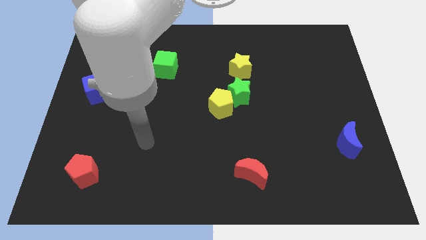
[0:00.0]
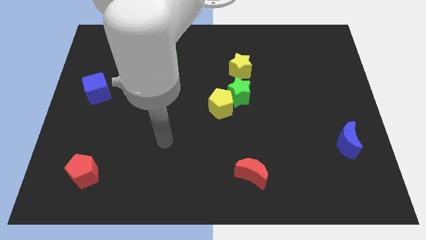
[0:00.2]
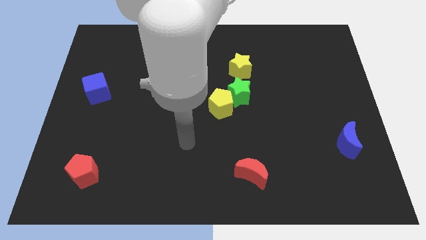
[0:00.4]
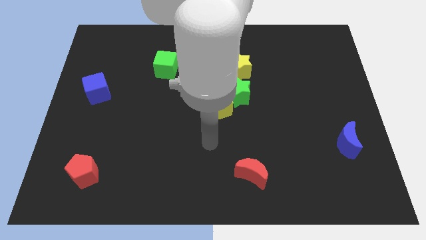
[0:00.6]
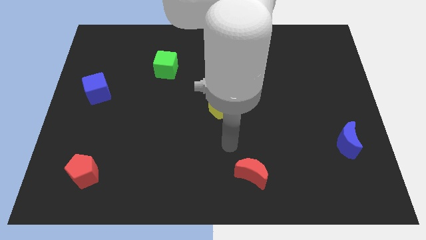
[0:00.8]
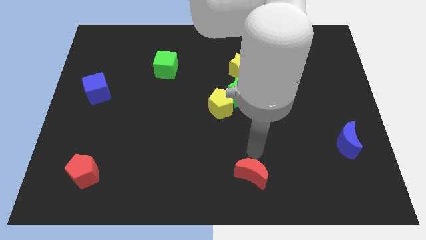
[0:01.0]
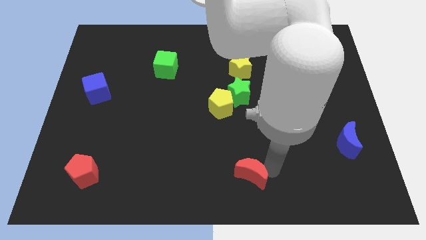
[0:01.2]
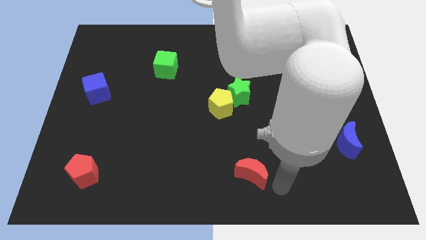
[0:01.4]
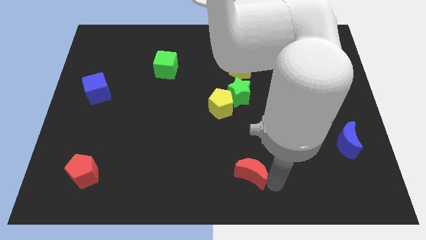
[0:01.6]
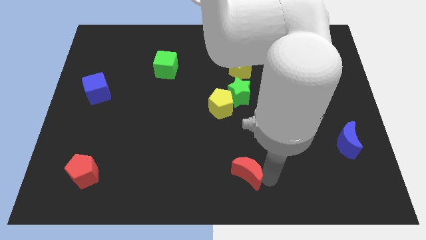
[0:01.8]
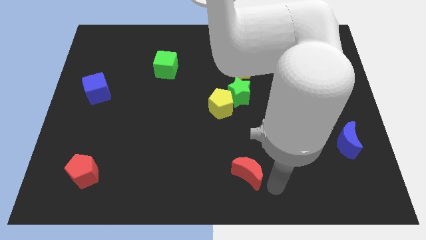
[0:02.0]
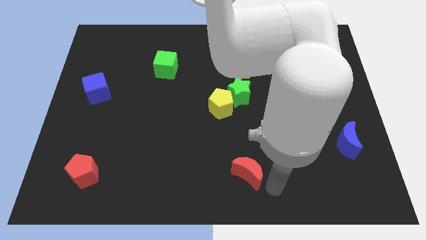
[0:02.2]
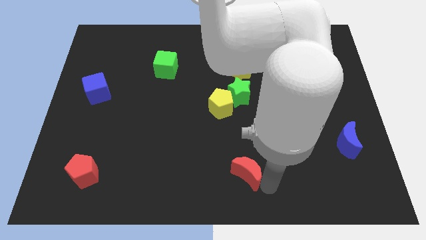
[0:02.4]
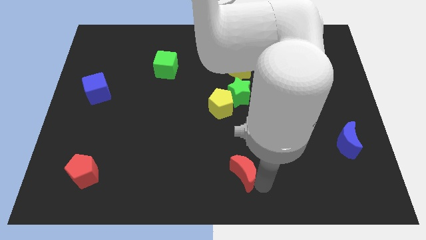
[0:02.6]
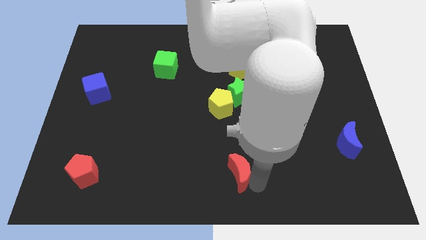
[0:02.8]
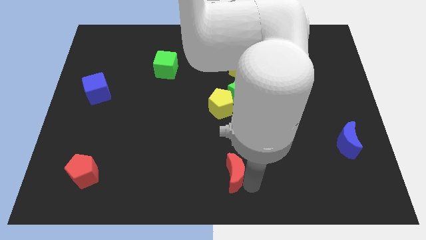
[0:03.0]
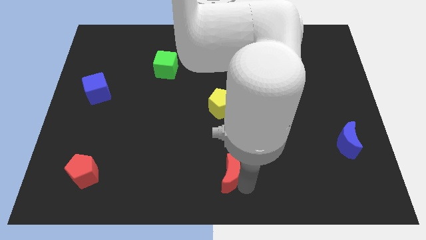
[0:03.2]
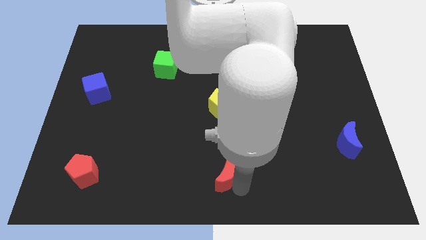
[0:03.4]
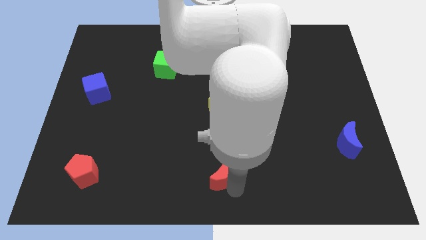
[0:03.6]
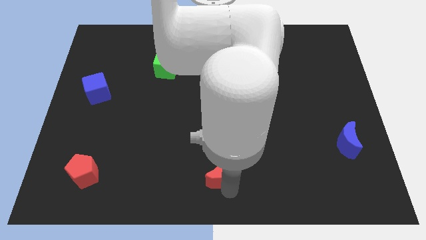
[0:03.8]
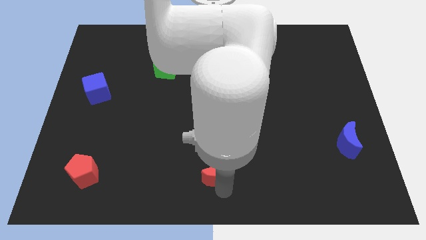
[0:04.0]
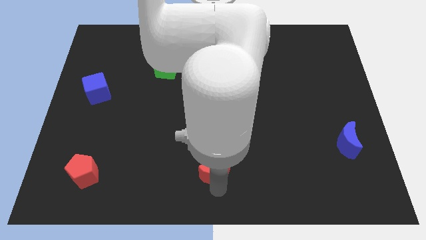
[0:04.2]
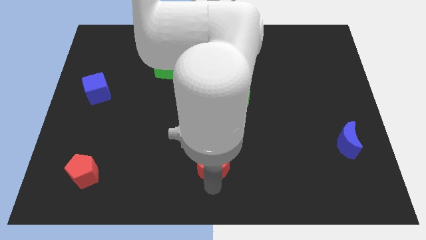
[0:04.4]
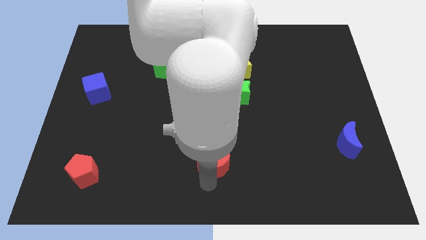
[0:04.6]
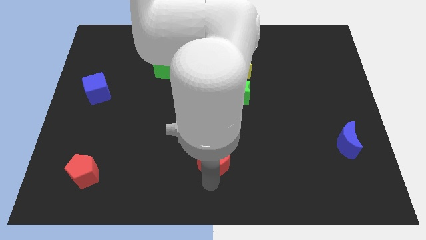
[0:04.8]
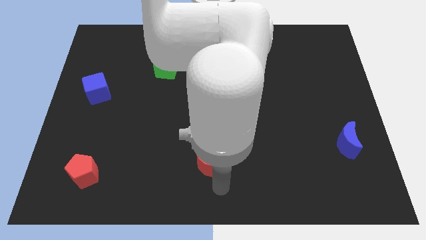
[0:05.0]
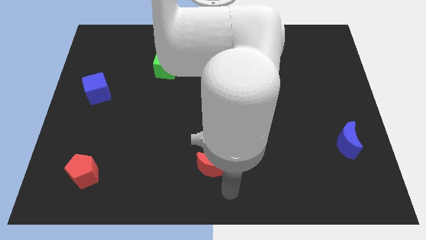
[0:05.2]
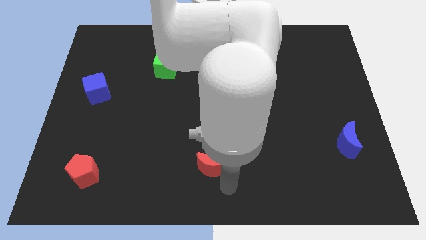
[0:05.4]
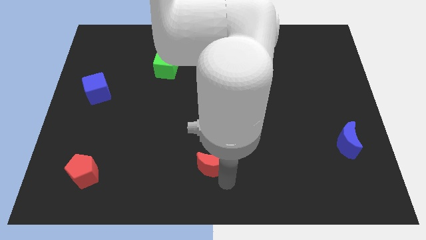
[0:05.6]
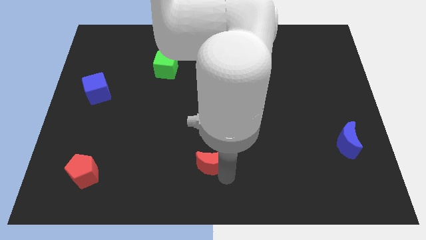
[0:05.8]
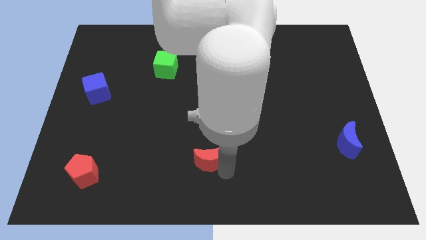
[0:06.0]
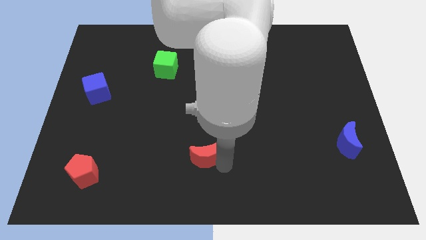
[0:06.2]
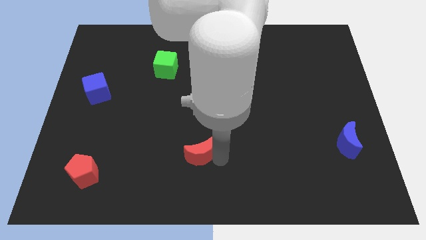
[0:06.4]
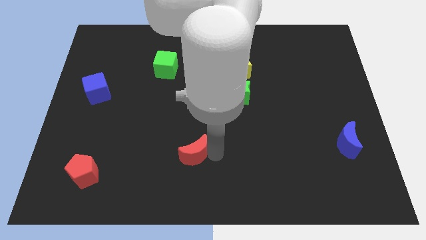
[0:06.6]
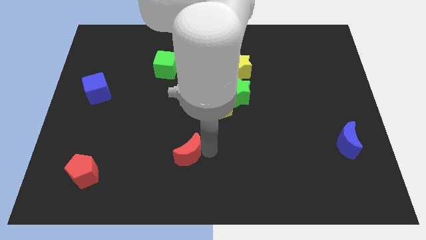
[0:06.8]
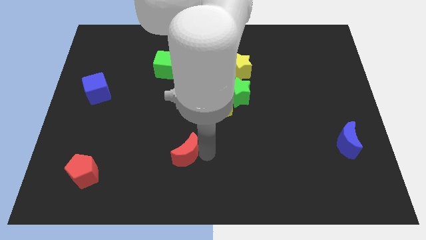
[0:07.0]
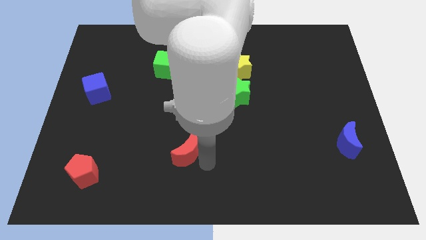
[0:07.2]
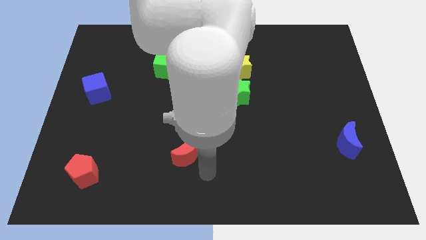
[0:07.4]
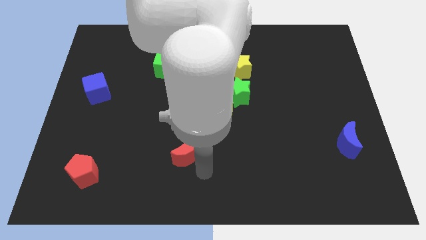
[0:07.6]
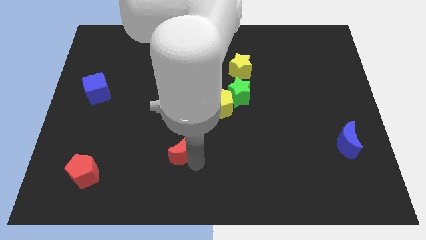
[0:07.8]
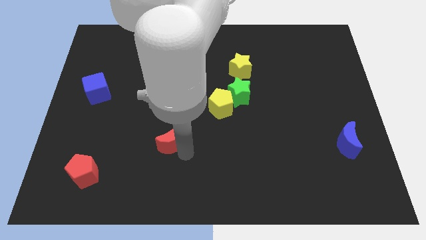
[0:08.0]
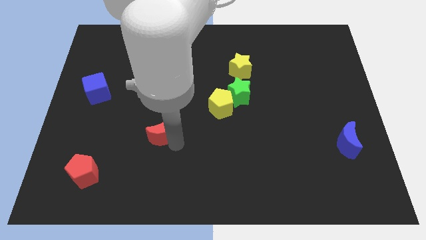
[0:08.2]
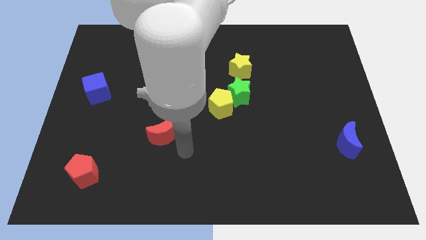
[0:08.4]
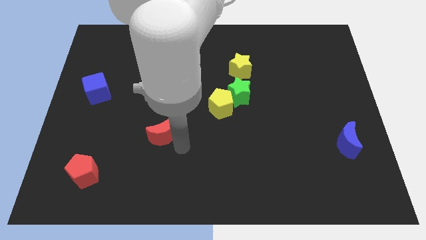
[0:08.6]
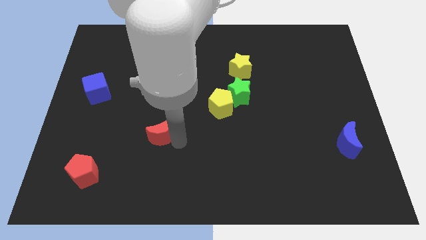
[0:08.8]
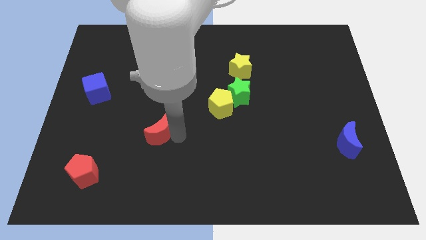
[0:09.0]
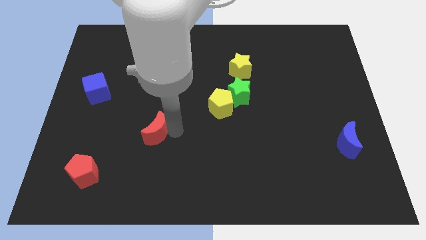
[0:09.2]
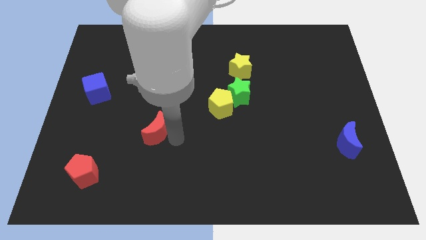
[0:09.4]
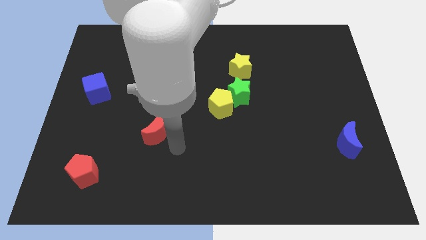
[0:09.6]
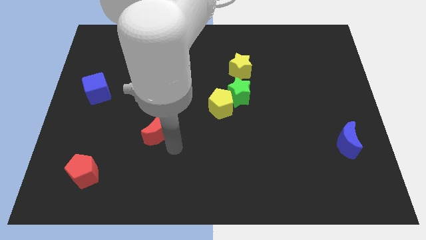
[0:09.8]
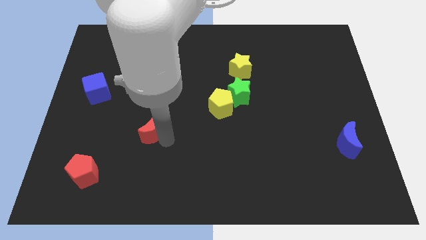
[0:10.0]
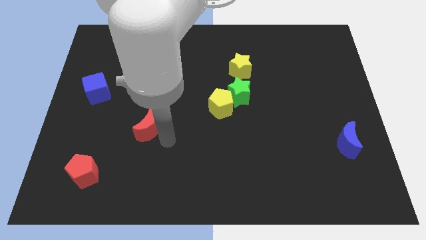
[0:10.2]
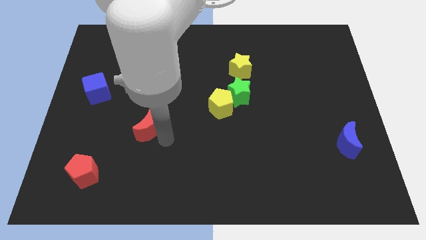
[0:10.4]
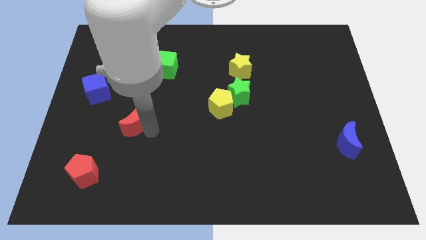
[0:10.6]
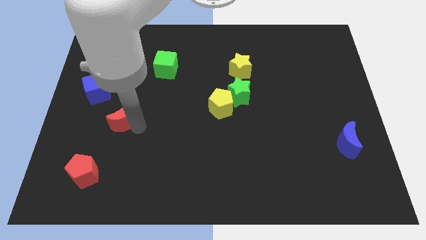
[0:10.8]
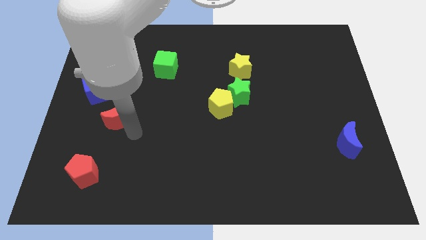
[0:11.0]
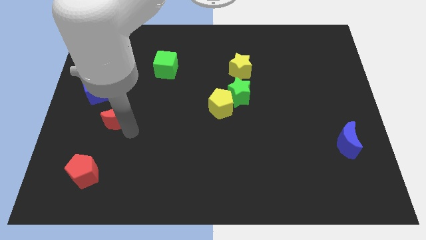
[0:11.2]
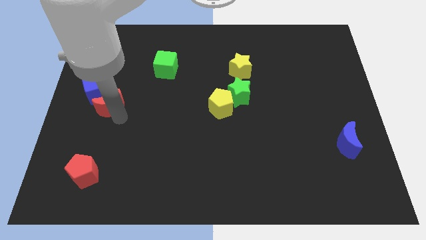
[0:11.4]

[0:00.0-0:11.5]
slide the red moon close to the blue cube

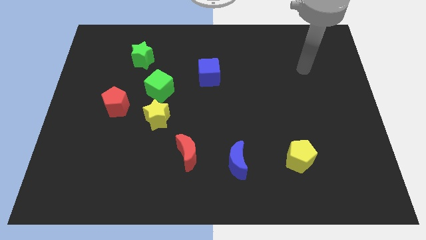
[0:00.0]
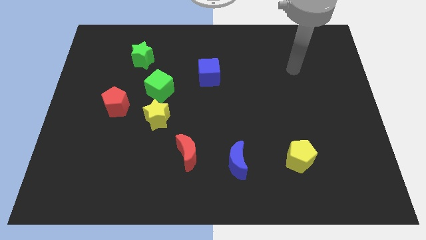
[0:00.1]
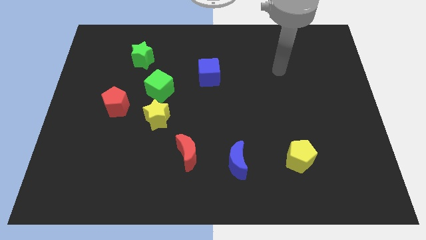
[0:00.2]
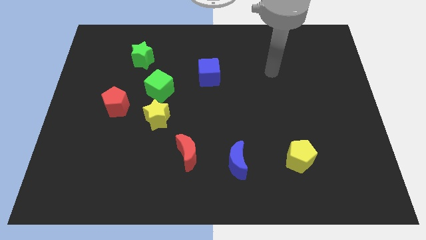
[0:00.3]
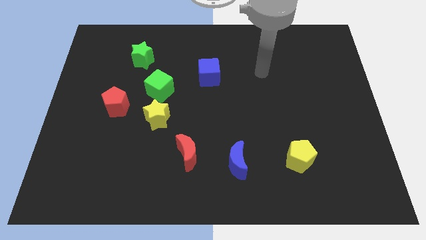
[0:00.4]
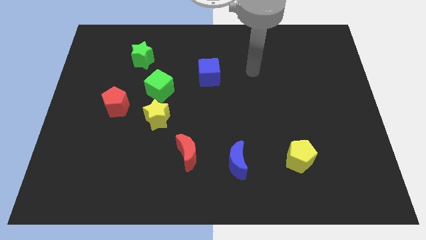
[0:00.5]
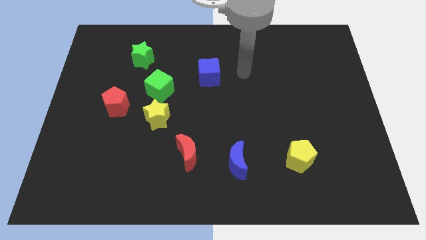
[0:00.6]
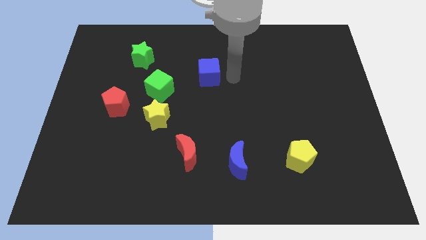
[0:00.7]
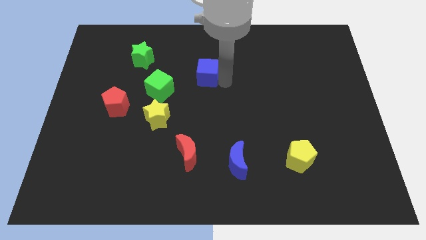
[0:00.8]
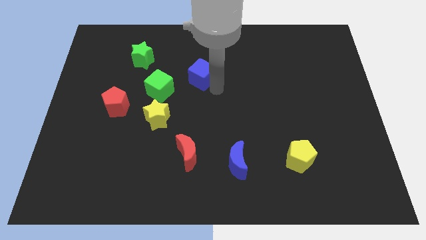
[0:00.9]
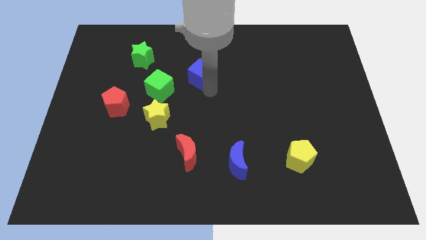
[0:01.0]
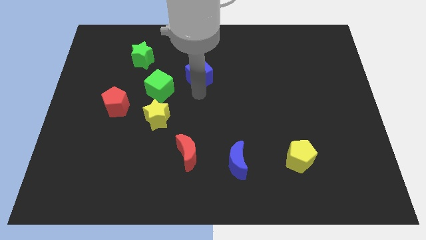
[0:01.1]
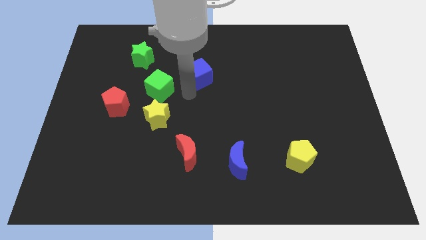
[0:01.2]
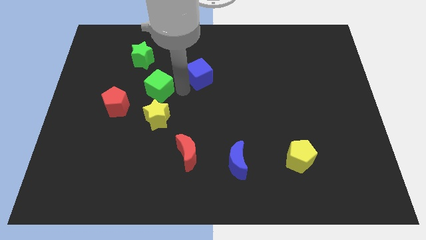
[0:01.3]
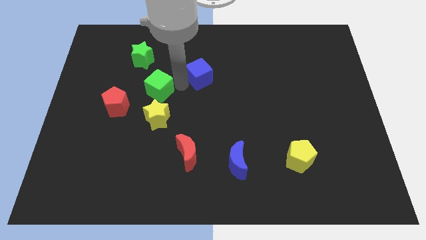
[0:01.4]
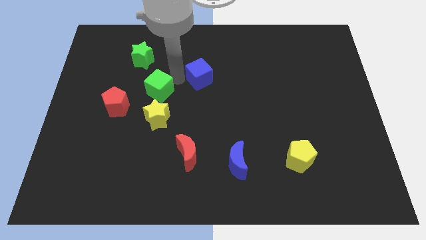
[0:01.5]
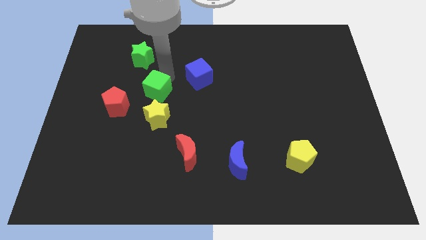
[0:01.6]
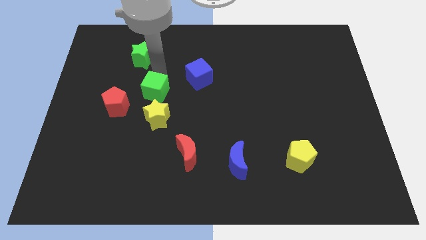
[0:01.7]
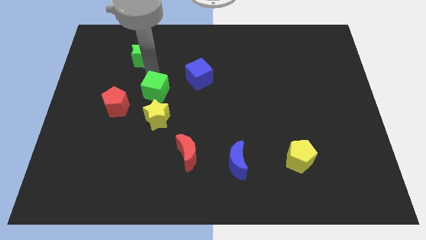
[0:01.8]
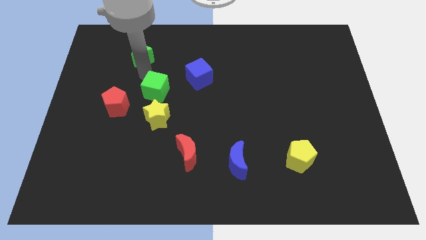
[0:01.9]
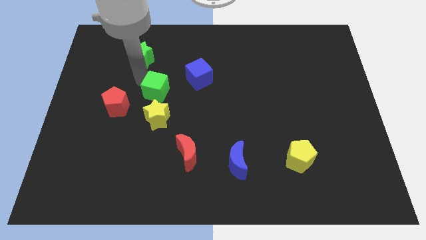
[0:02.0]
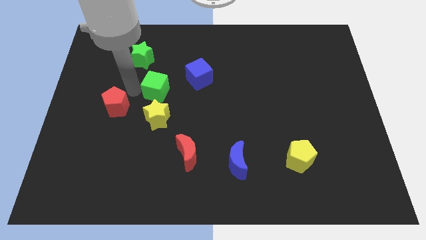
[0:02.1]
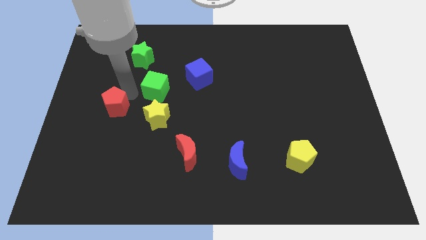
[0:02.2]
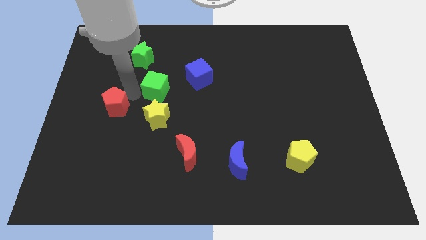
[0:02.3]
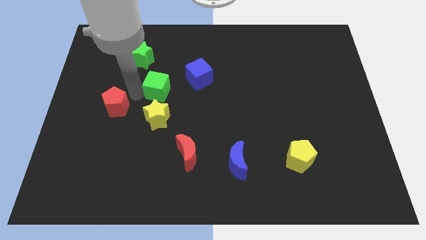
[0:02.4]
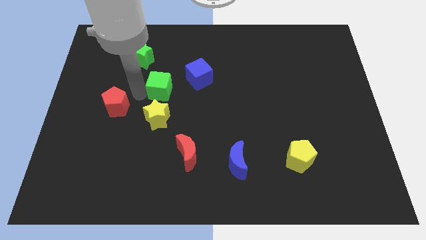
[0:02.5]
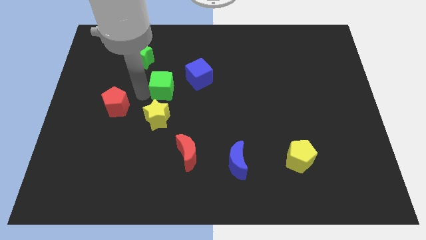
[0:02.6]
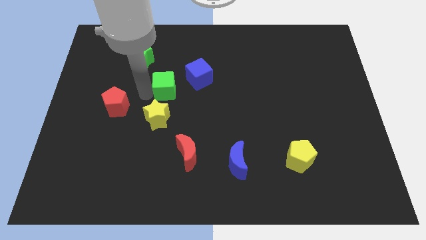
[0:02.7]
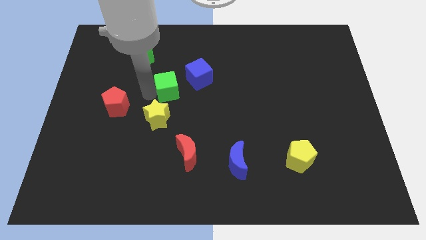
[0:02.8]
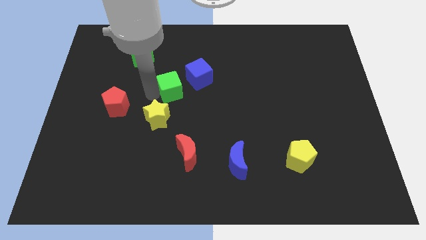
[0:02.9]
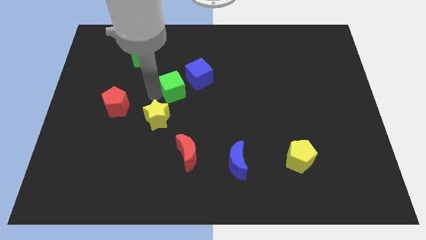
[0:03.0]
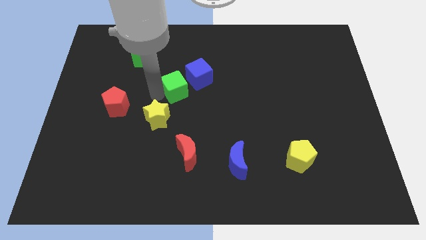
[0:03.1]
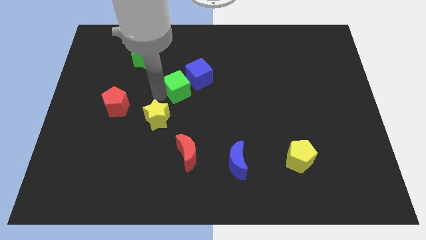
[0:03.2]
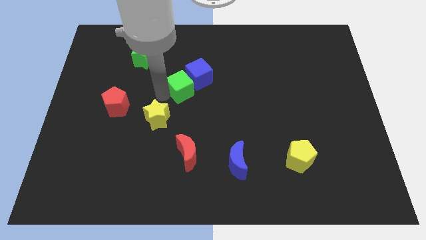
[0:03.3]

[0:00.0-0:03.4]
push the green cube close to the blue cube
